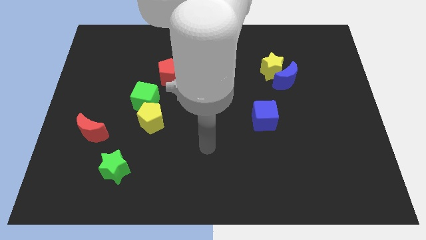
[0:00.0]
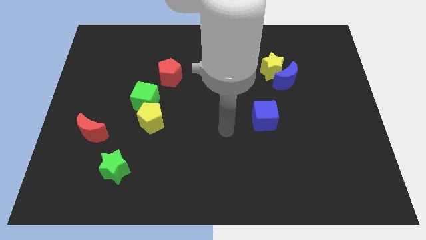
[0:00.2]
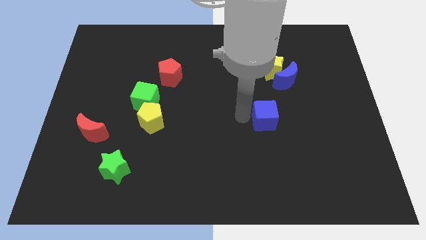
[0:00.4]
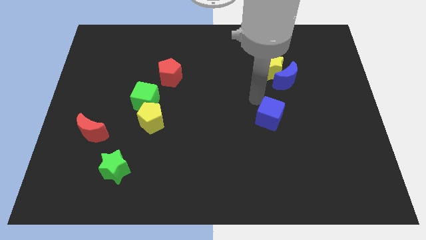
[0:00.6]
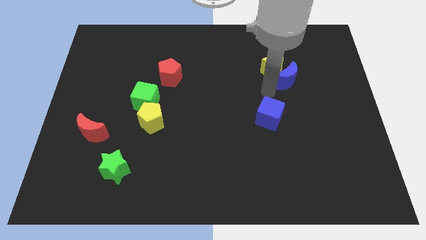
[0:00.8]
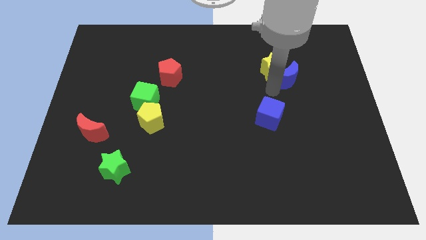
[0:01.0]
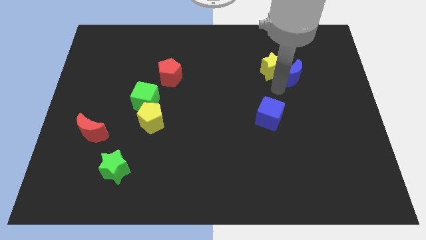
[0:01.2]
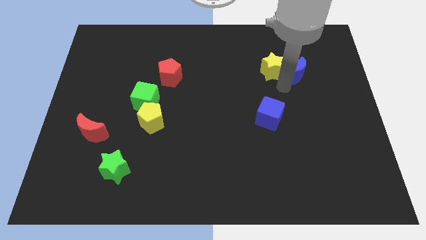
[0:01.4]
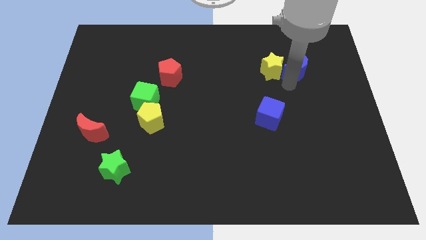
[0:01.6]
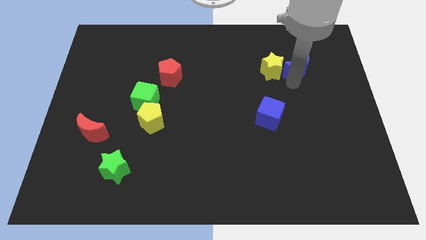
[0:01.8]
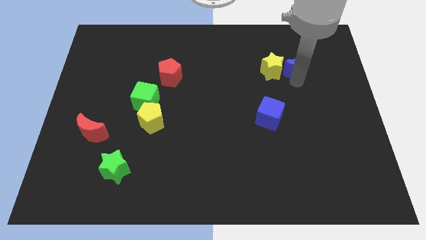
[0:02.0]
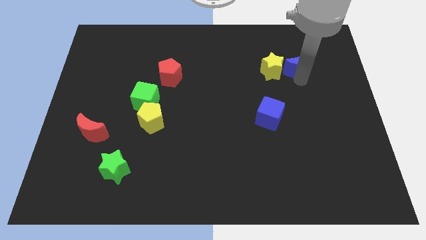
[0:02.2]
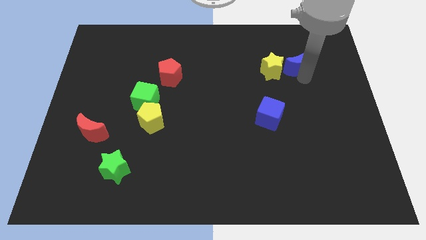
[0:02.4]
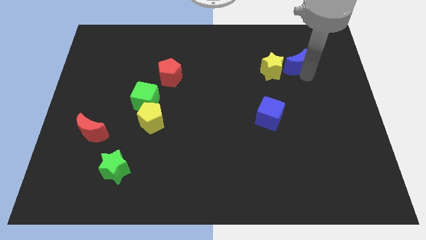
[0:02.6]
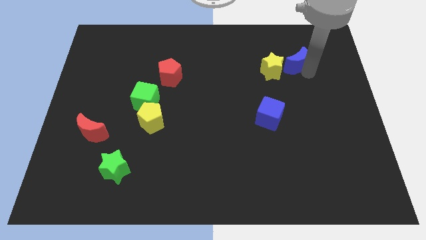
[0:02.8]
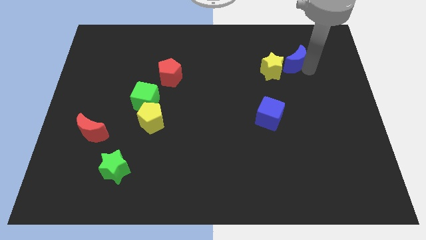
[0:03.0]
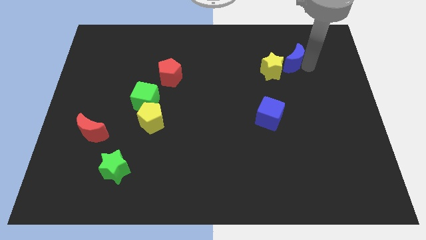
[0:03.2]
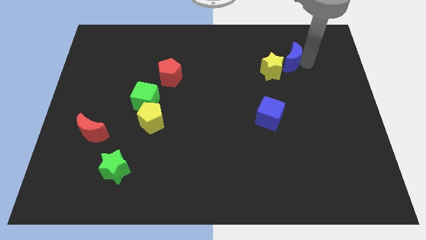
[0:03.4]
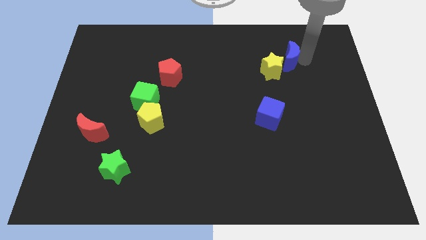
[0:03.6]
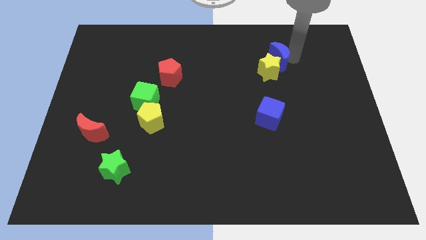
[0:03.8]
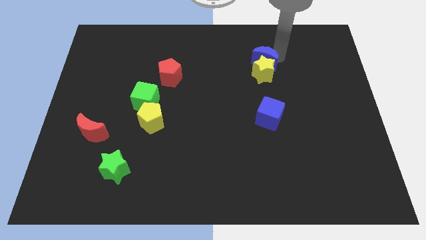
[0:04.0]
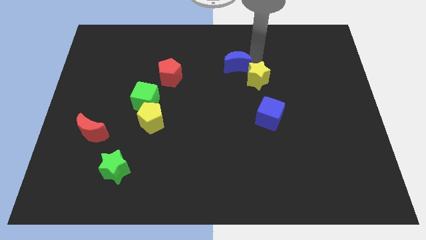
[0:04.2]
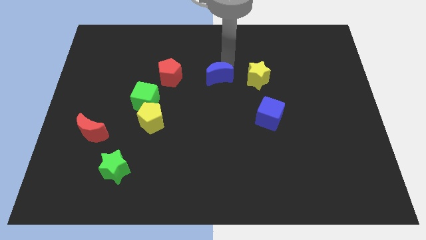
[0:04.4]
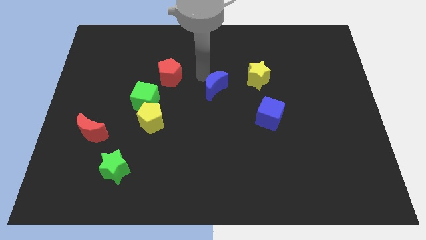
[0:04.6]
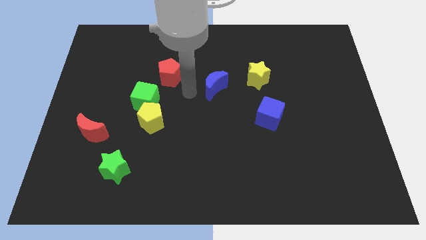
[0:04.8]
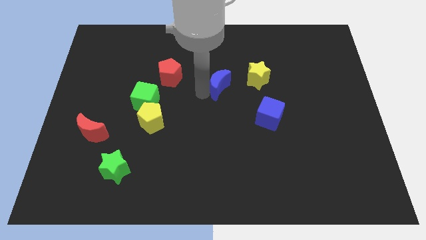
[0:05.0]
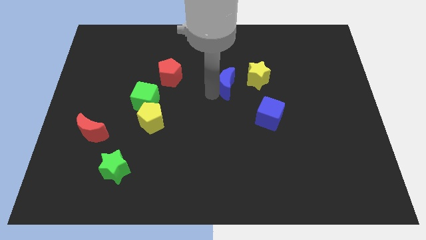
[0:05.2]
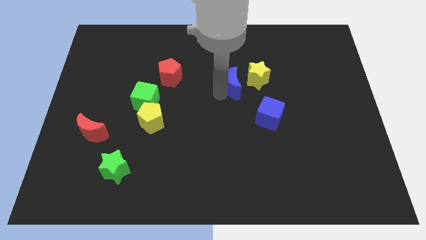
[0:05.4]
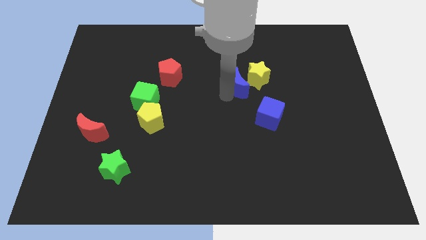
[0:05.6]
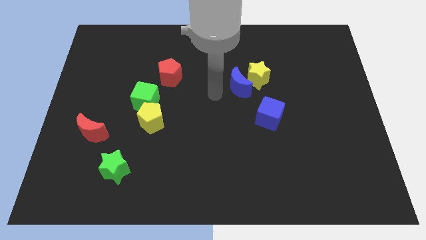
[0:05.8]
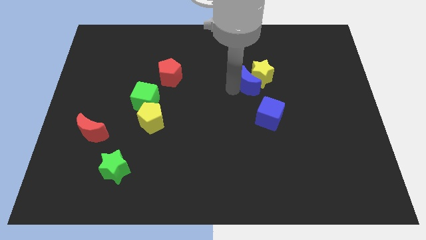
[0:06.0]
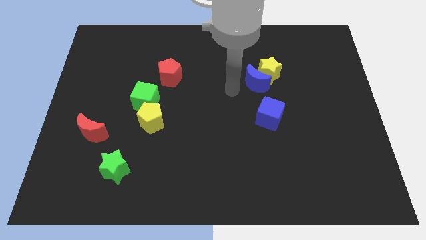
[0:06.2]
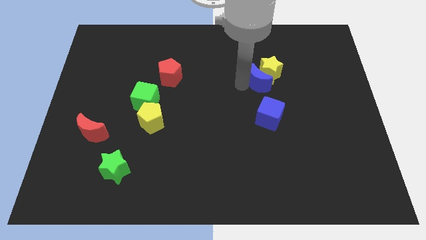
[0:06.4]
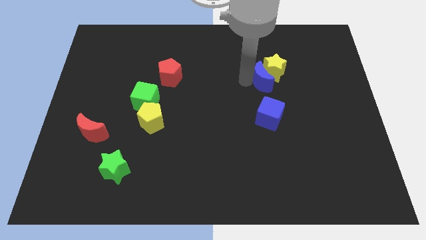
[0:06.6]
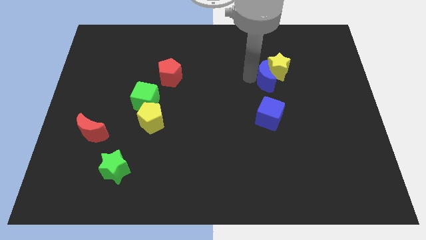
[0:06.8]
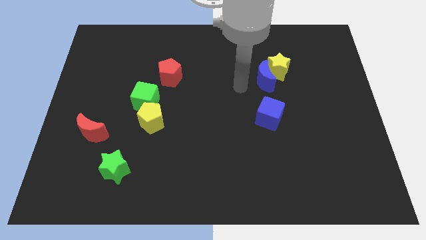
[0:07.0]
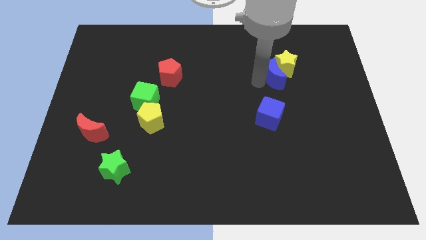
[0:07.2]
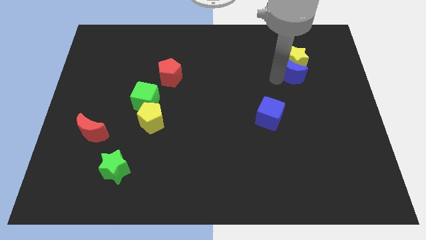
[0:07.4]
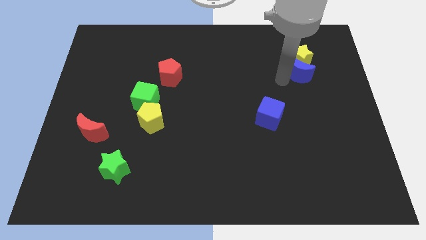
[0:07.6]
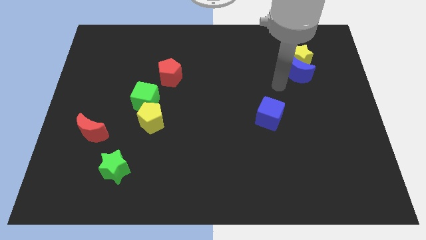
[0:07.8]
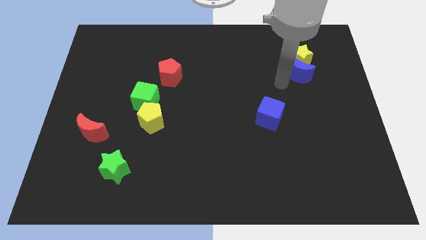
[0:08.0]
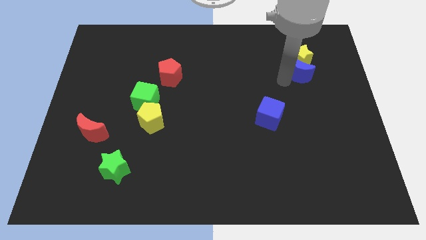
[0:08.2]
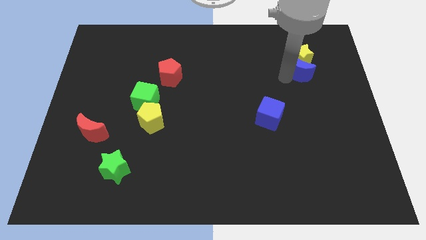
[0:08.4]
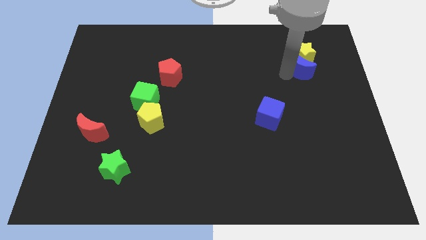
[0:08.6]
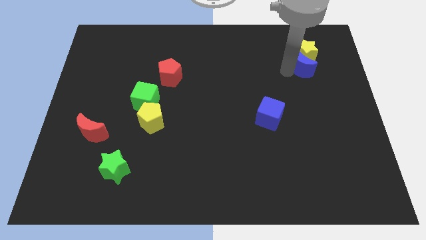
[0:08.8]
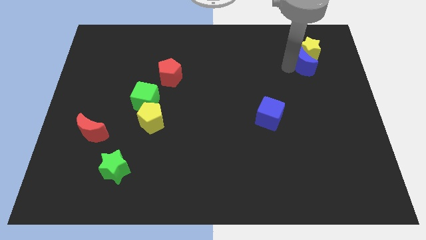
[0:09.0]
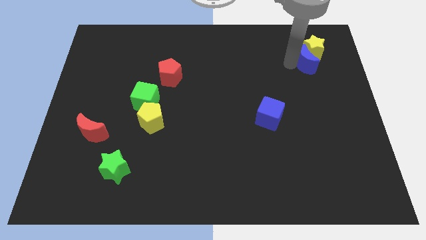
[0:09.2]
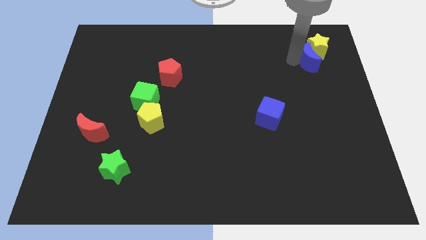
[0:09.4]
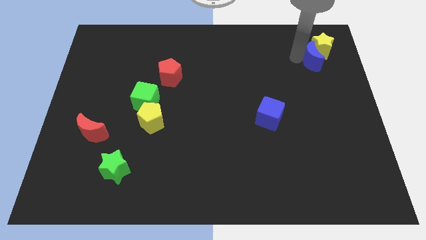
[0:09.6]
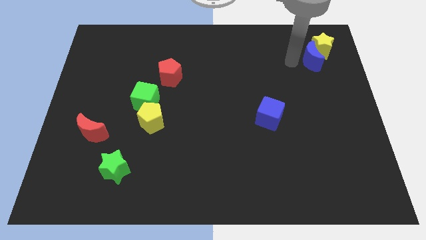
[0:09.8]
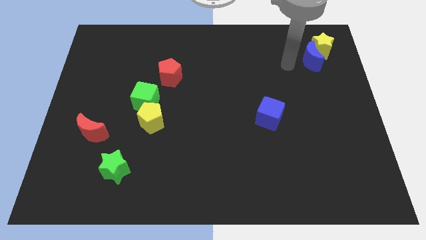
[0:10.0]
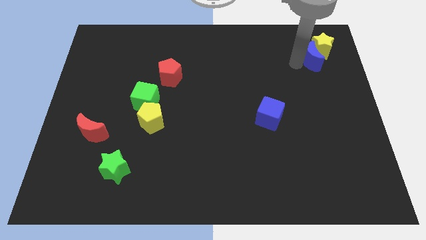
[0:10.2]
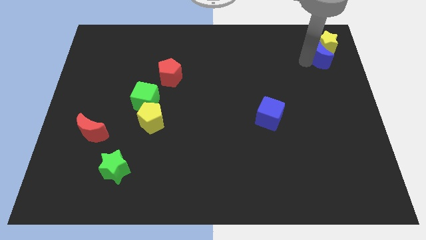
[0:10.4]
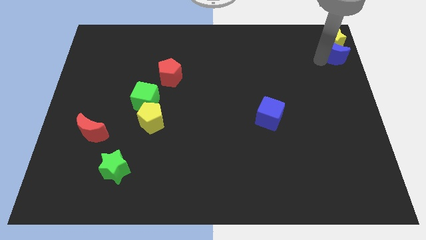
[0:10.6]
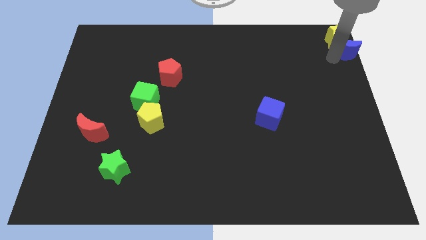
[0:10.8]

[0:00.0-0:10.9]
put the blue moon to the top right

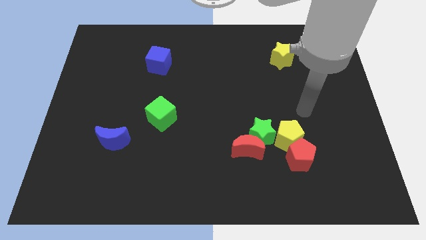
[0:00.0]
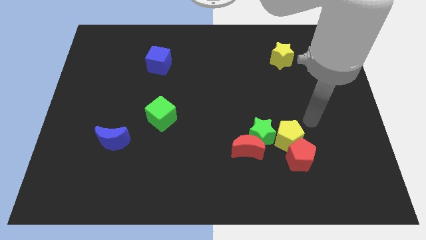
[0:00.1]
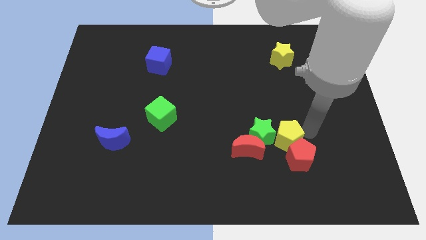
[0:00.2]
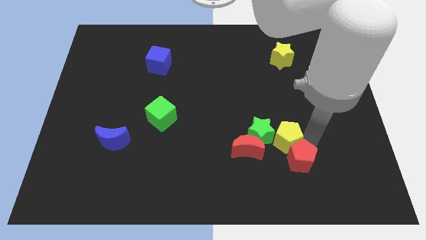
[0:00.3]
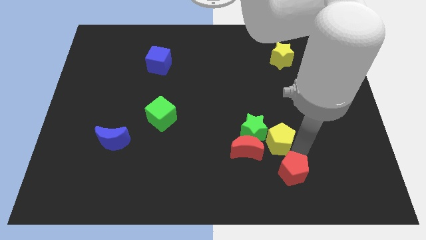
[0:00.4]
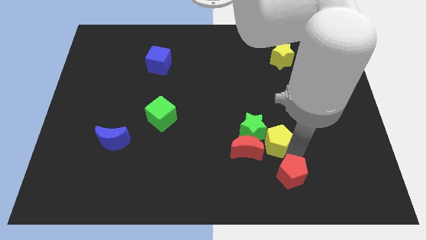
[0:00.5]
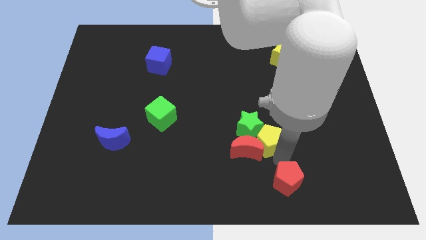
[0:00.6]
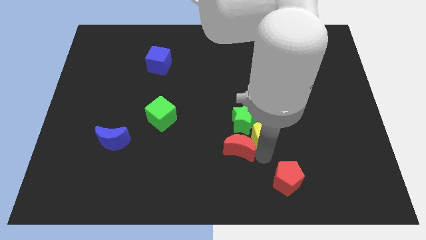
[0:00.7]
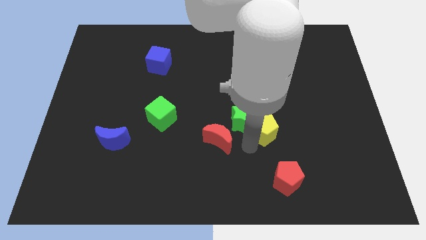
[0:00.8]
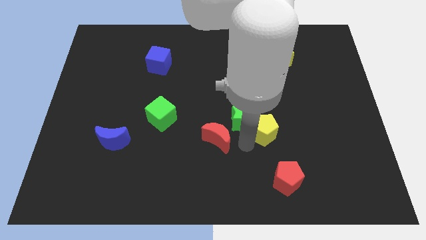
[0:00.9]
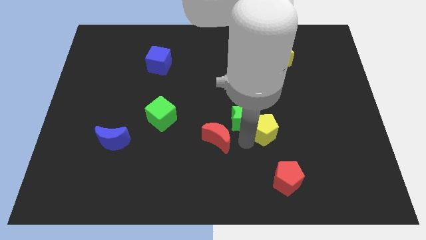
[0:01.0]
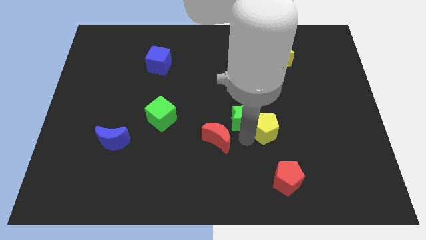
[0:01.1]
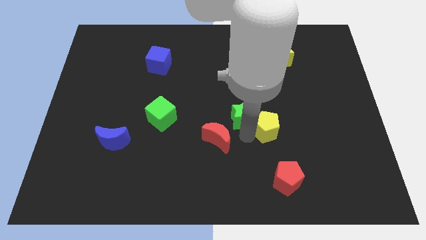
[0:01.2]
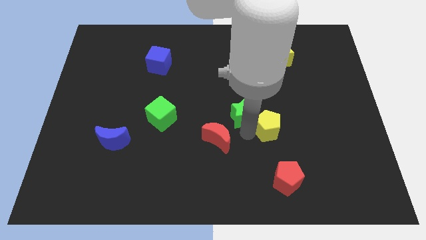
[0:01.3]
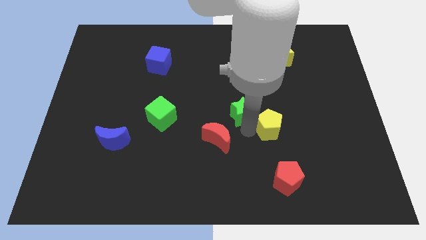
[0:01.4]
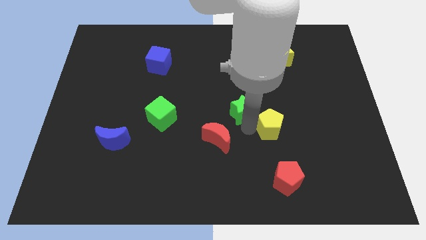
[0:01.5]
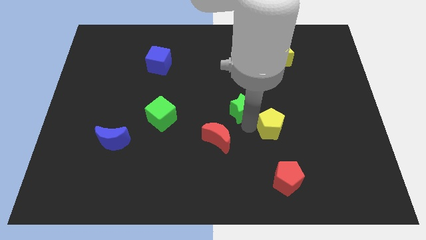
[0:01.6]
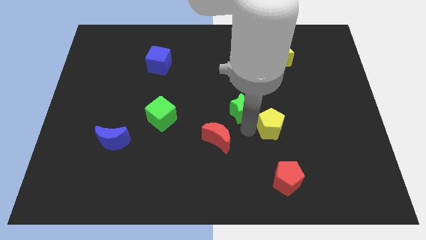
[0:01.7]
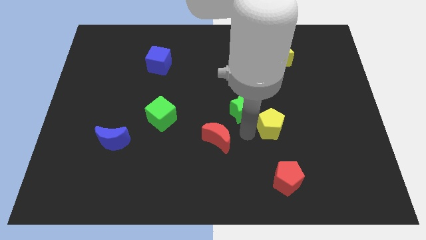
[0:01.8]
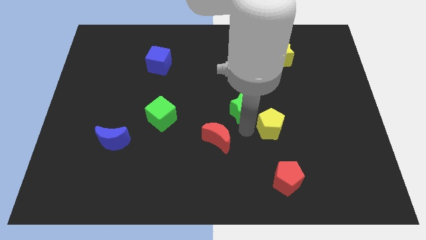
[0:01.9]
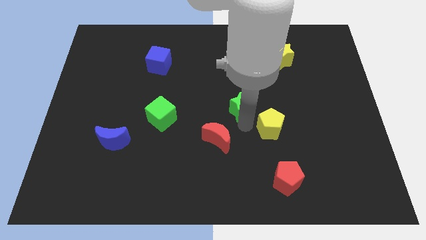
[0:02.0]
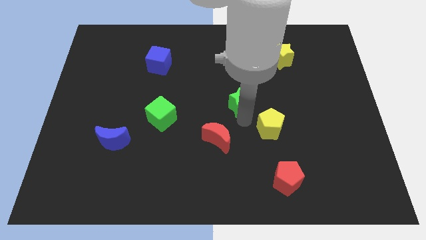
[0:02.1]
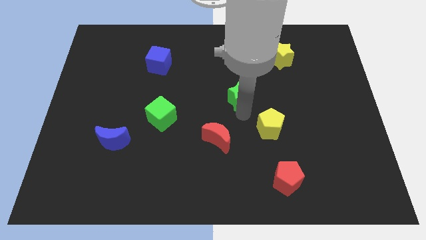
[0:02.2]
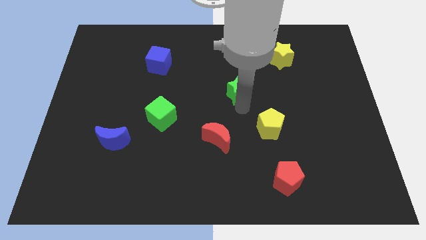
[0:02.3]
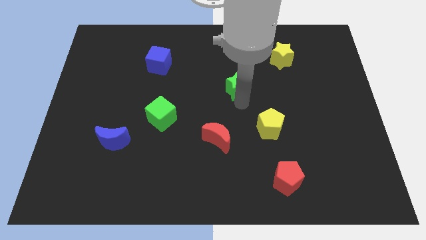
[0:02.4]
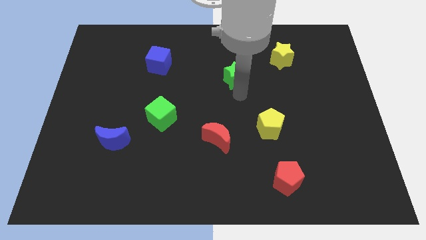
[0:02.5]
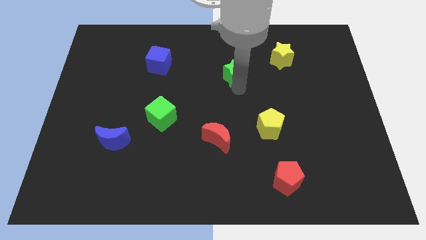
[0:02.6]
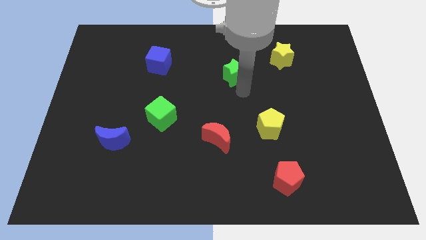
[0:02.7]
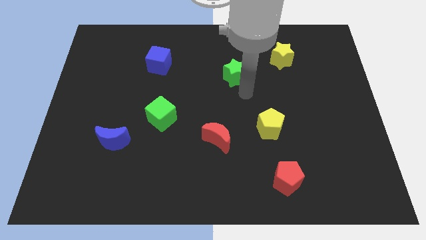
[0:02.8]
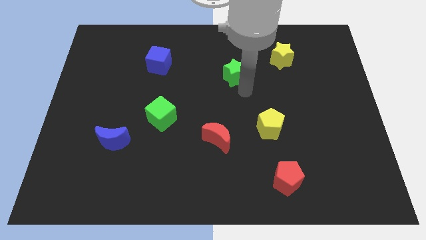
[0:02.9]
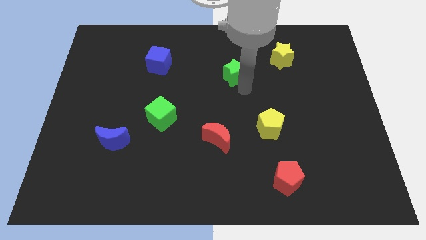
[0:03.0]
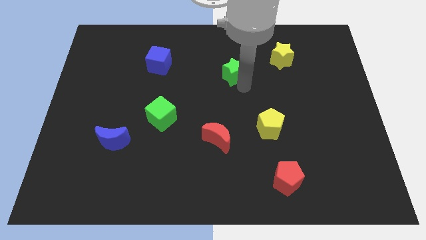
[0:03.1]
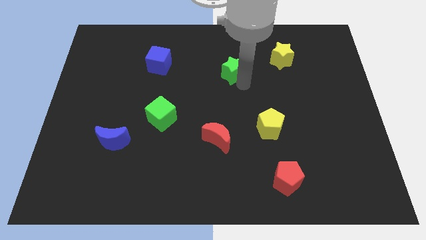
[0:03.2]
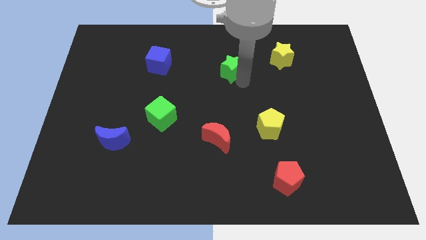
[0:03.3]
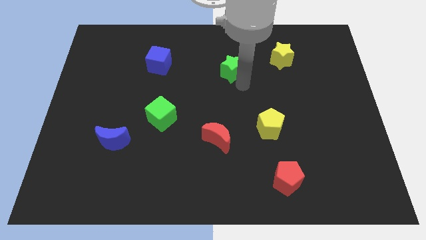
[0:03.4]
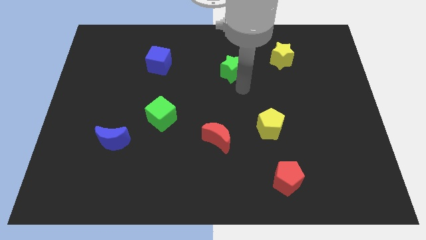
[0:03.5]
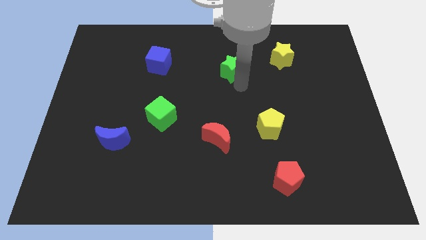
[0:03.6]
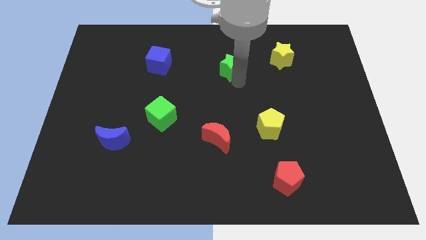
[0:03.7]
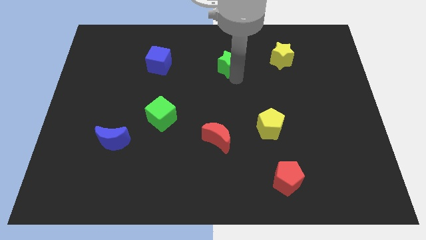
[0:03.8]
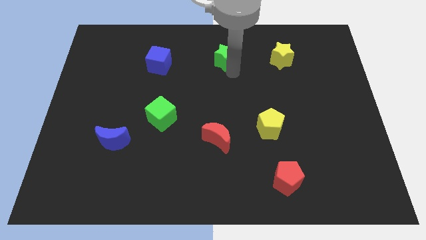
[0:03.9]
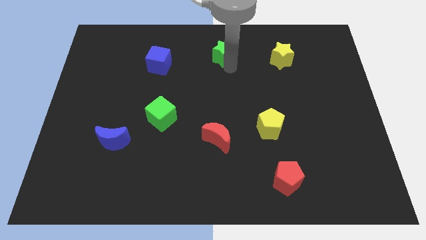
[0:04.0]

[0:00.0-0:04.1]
push the green star to the top side
